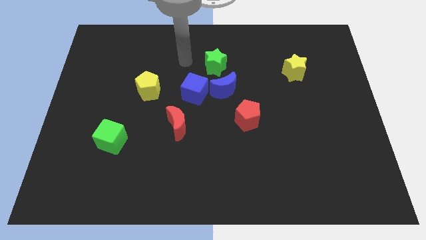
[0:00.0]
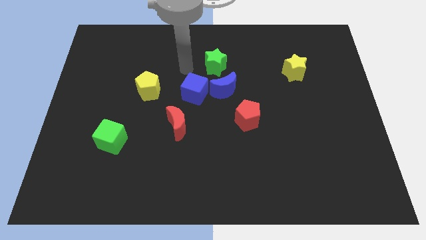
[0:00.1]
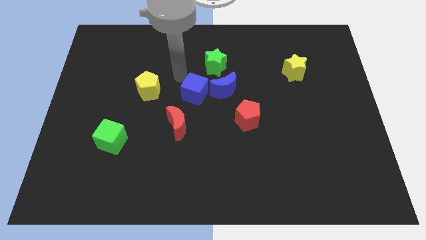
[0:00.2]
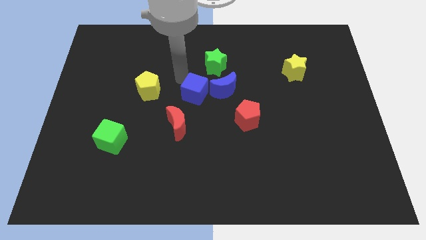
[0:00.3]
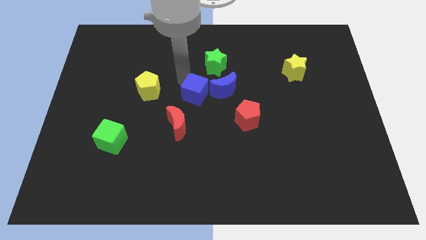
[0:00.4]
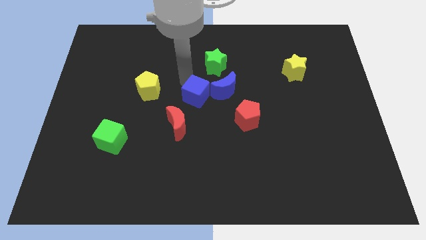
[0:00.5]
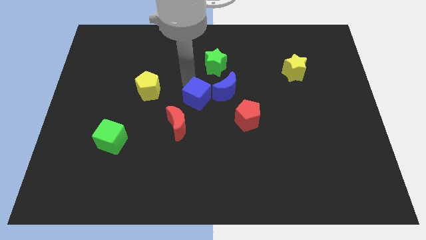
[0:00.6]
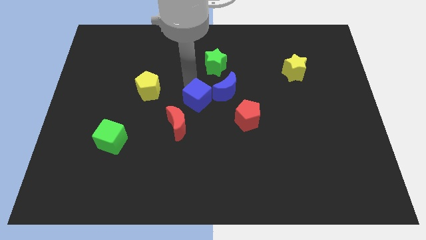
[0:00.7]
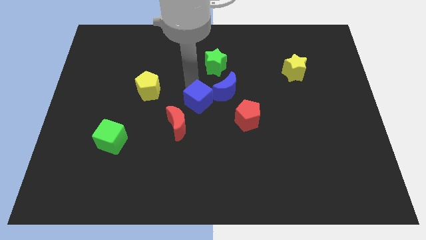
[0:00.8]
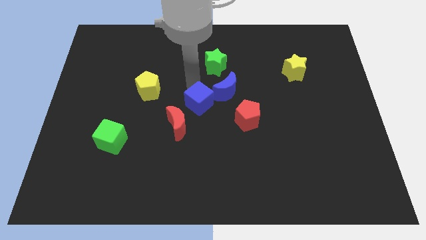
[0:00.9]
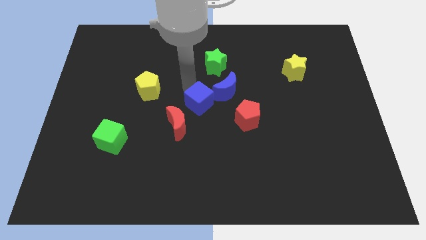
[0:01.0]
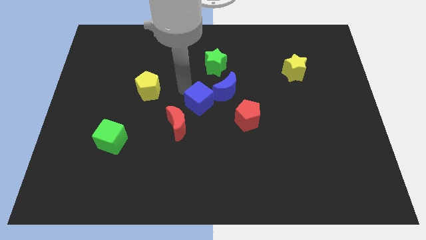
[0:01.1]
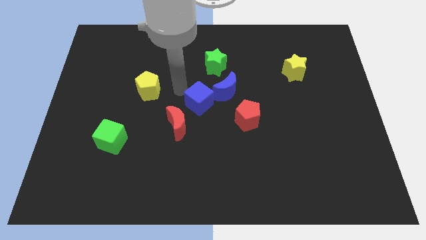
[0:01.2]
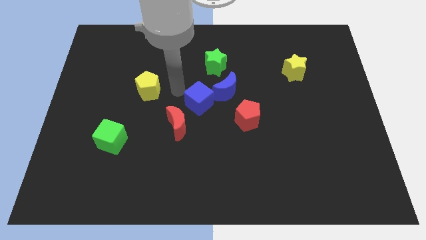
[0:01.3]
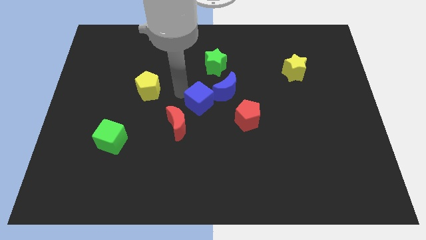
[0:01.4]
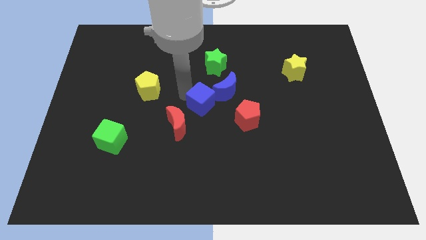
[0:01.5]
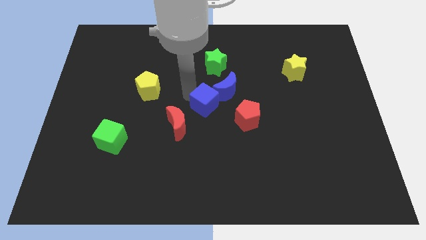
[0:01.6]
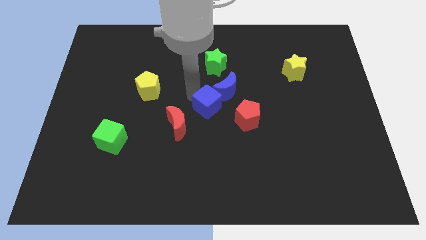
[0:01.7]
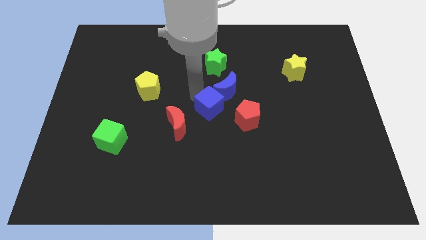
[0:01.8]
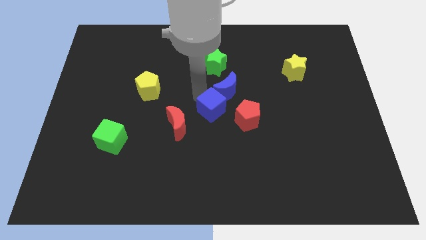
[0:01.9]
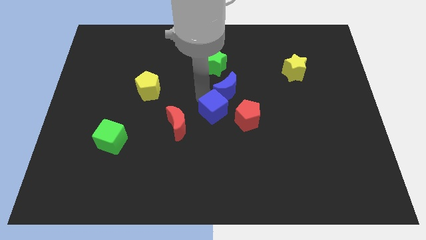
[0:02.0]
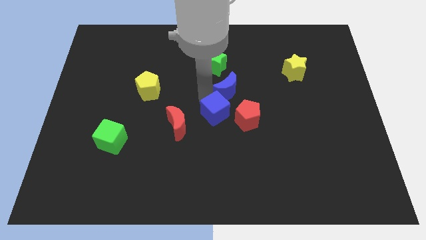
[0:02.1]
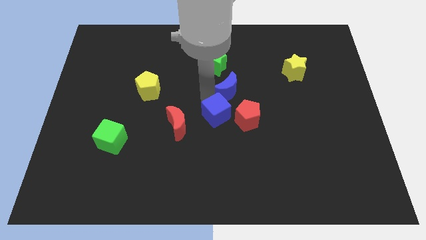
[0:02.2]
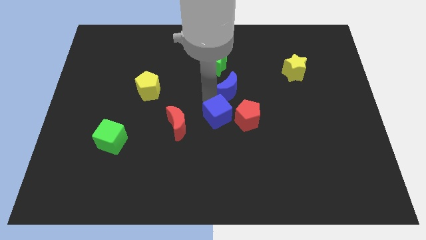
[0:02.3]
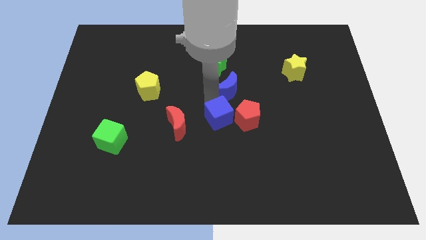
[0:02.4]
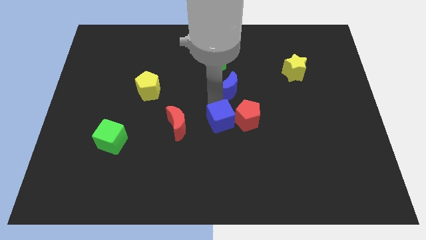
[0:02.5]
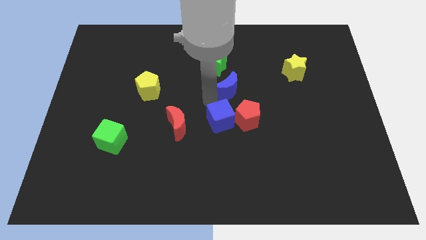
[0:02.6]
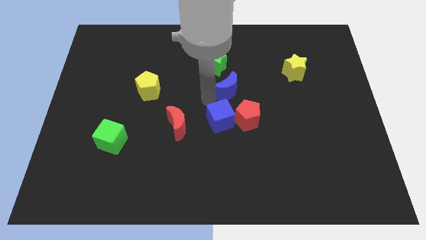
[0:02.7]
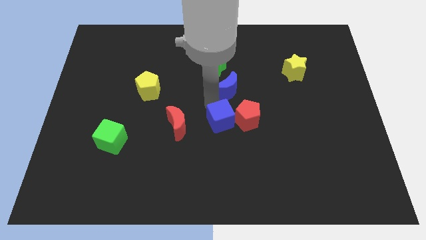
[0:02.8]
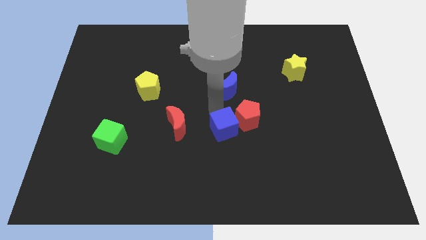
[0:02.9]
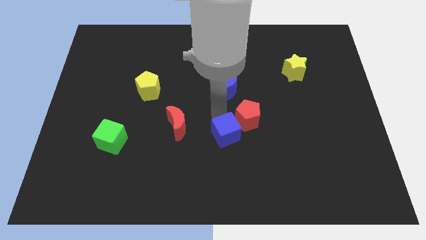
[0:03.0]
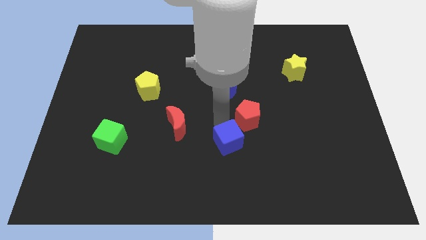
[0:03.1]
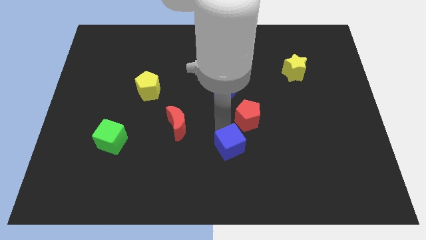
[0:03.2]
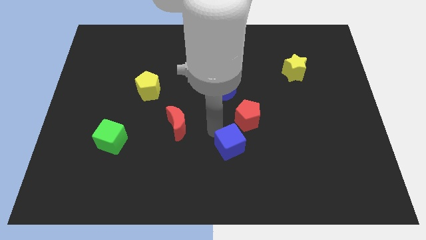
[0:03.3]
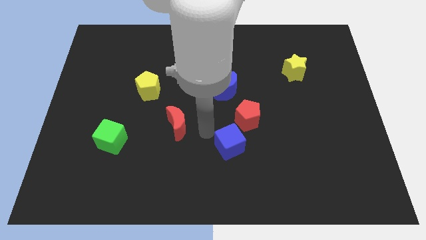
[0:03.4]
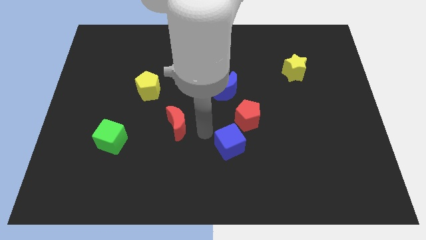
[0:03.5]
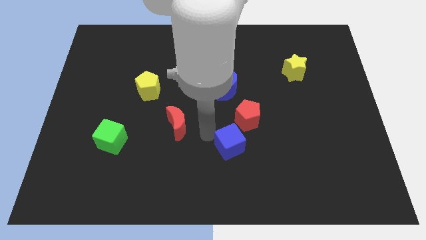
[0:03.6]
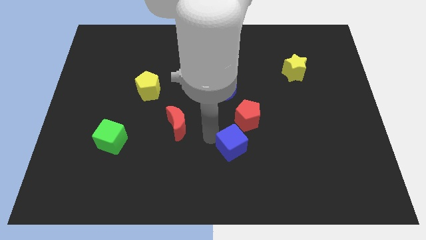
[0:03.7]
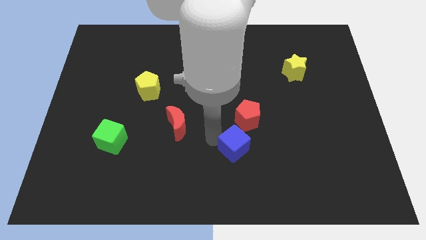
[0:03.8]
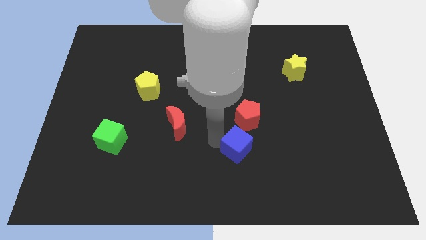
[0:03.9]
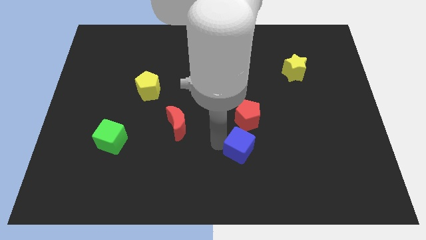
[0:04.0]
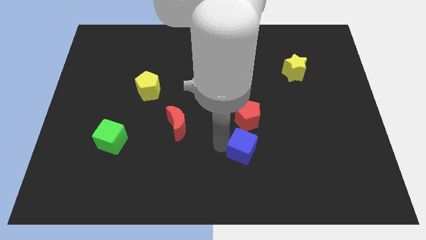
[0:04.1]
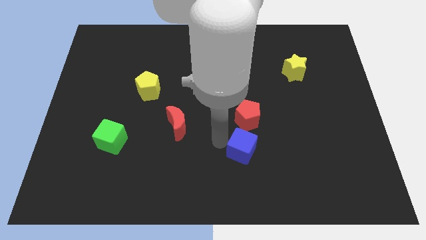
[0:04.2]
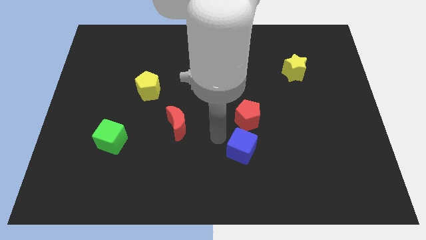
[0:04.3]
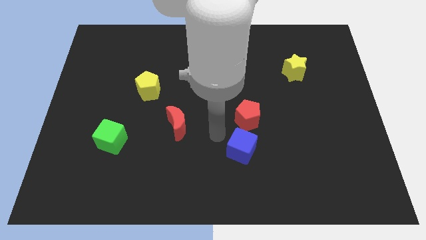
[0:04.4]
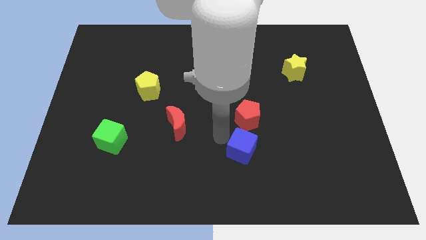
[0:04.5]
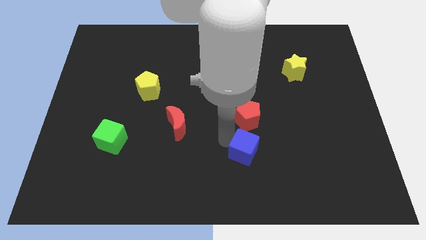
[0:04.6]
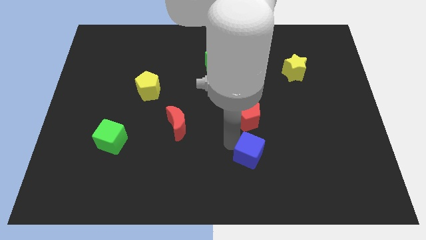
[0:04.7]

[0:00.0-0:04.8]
slide the blue cube diagonally down and to the right

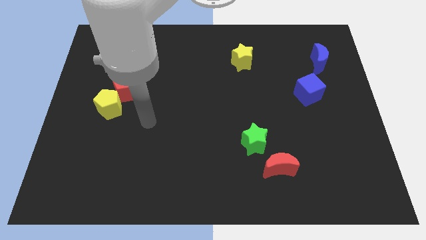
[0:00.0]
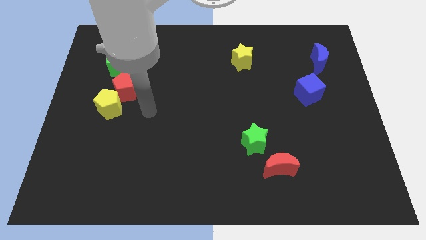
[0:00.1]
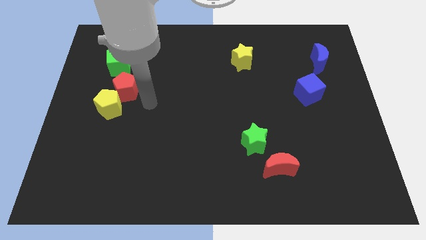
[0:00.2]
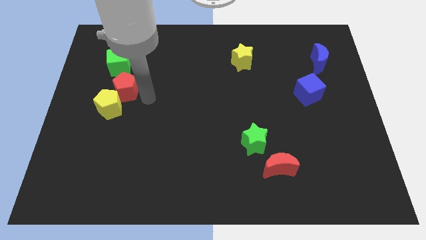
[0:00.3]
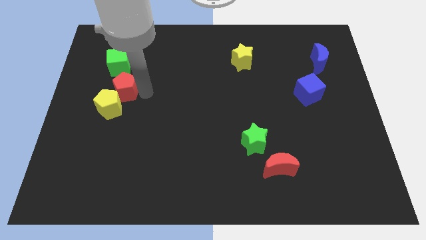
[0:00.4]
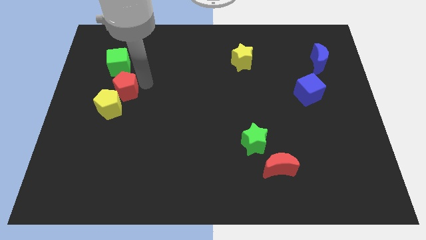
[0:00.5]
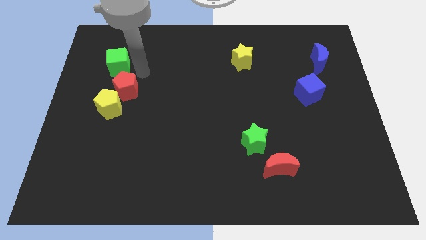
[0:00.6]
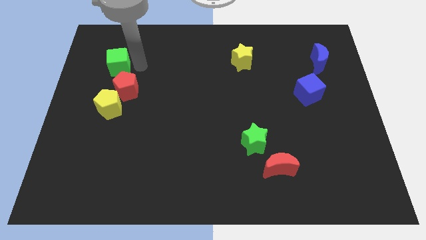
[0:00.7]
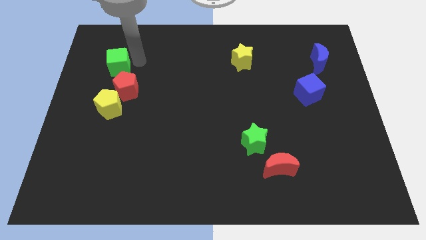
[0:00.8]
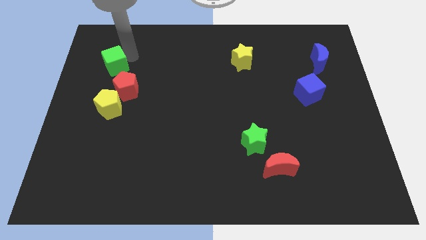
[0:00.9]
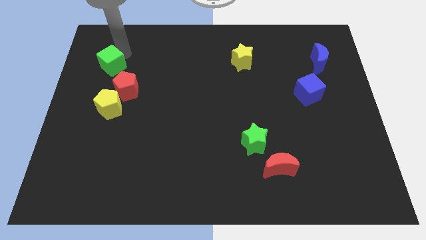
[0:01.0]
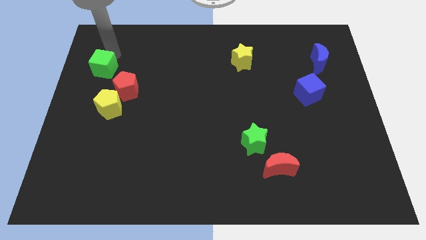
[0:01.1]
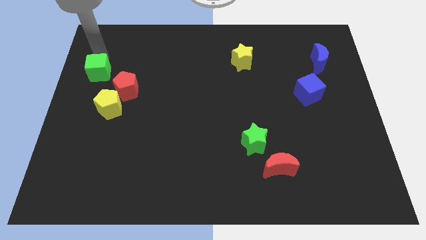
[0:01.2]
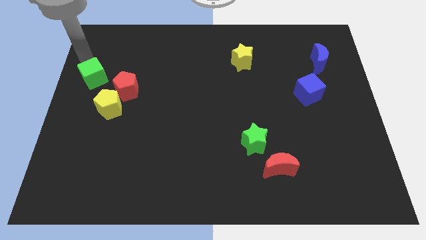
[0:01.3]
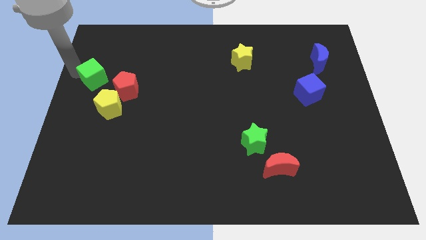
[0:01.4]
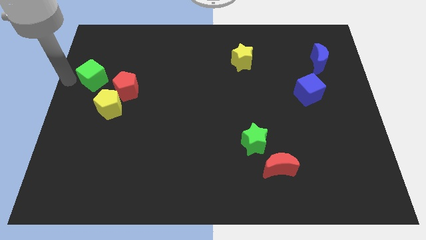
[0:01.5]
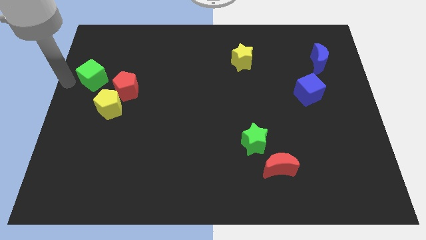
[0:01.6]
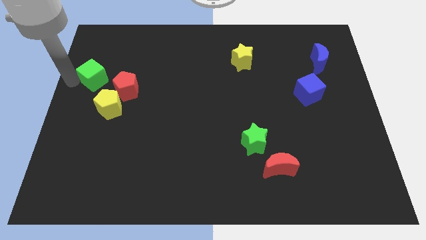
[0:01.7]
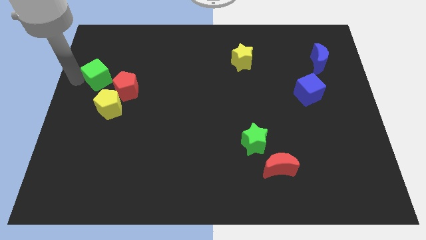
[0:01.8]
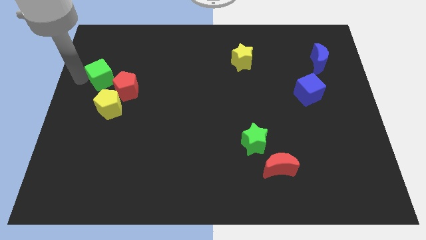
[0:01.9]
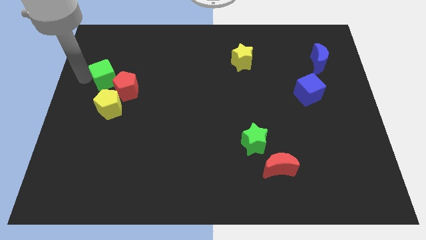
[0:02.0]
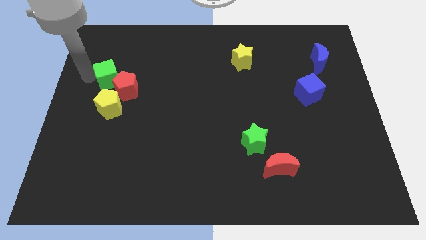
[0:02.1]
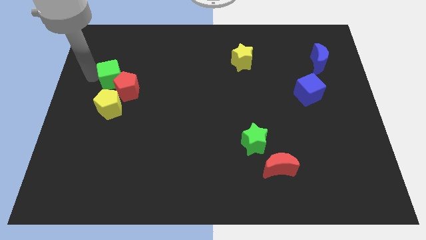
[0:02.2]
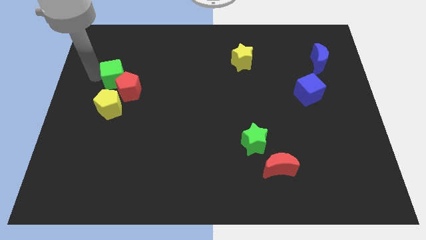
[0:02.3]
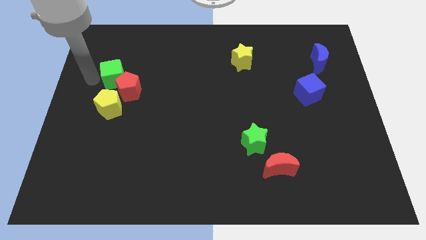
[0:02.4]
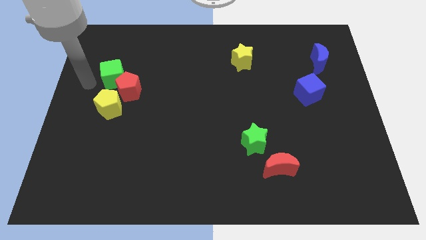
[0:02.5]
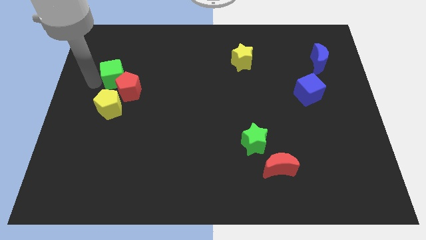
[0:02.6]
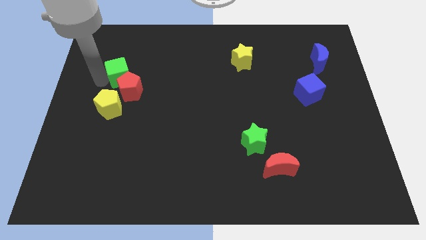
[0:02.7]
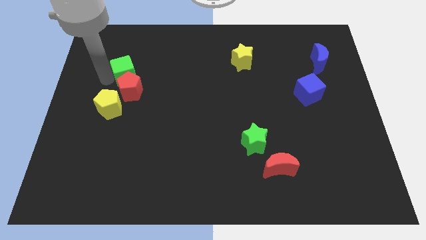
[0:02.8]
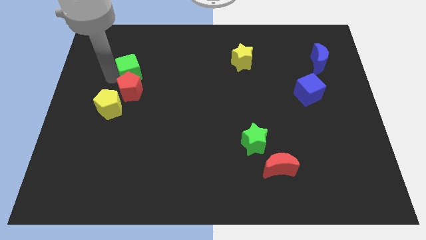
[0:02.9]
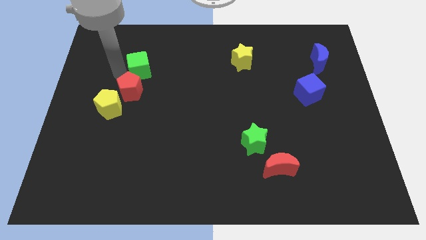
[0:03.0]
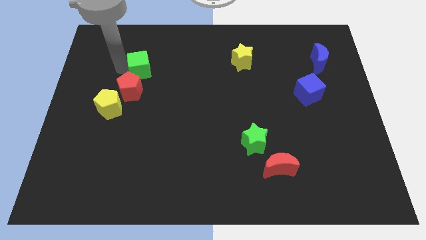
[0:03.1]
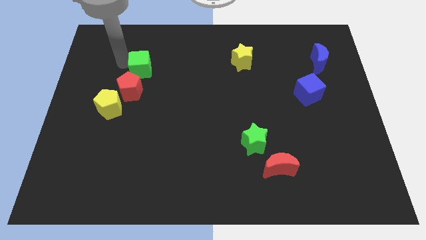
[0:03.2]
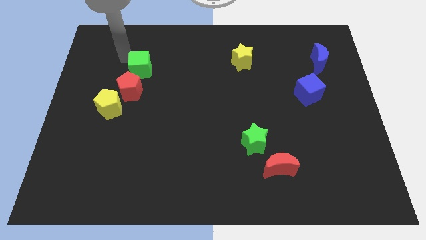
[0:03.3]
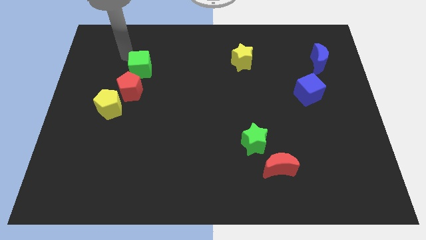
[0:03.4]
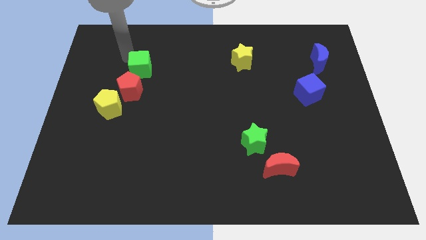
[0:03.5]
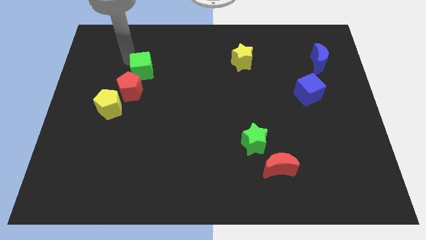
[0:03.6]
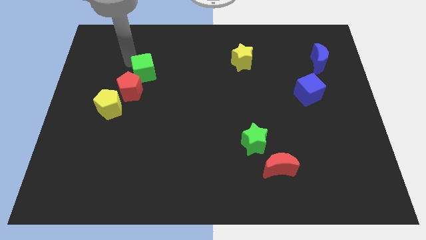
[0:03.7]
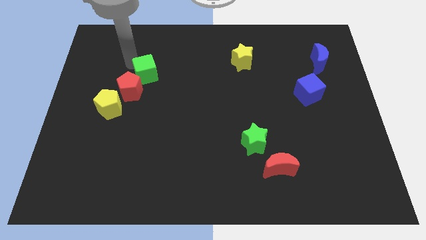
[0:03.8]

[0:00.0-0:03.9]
push the green cube a little down and to the right
